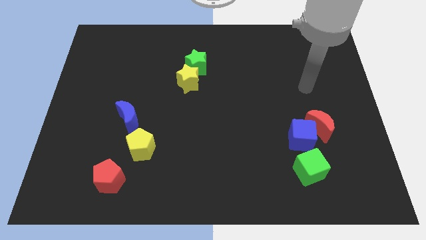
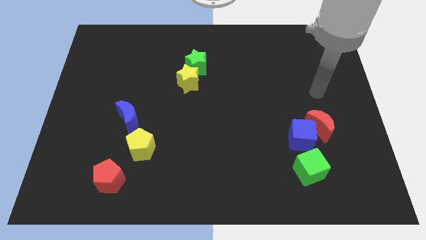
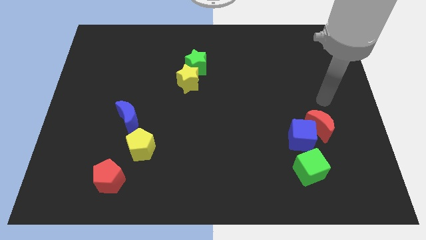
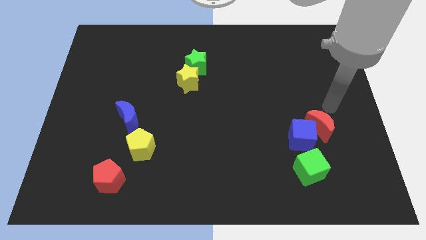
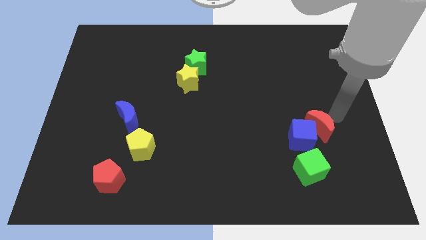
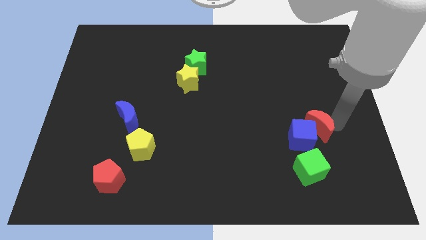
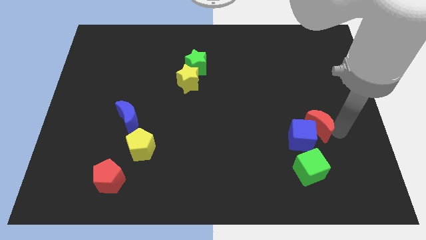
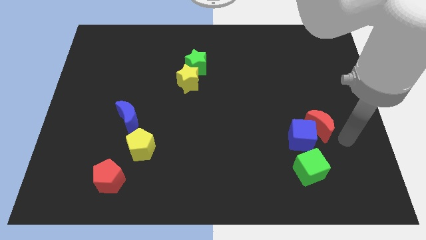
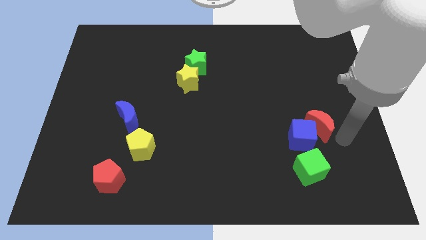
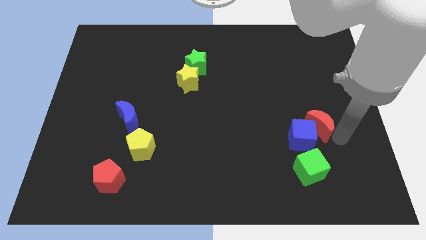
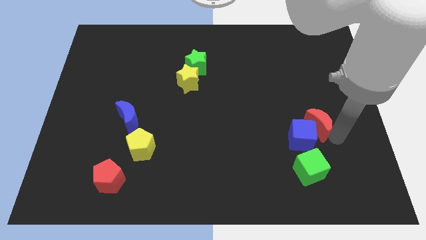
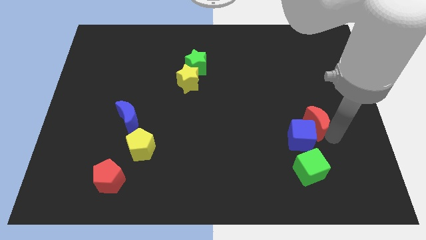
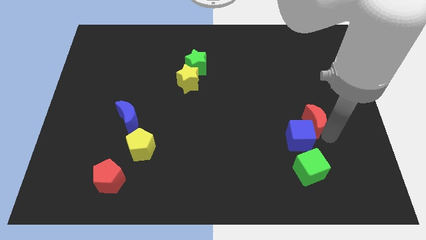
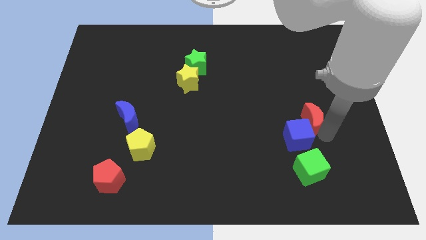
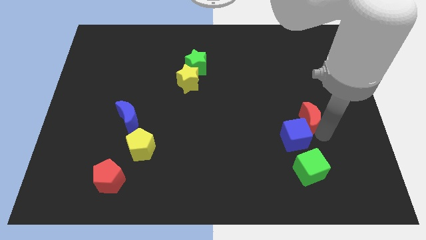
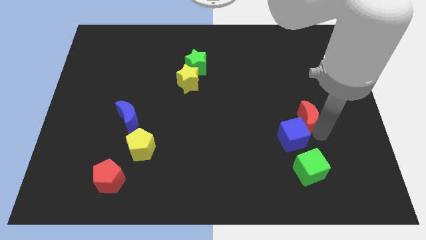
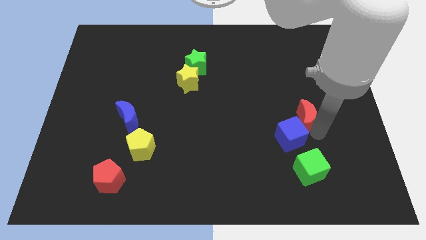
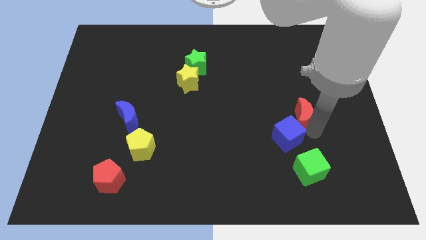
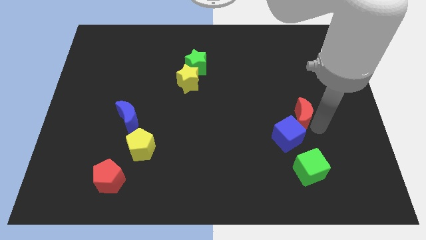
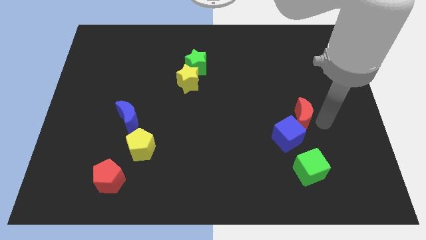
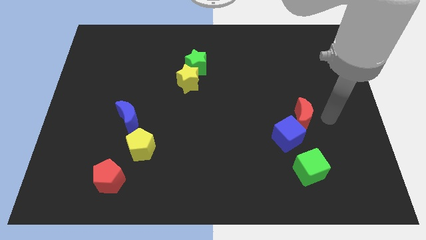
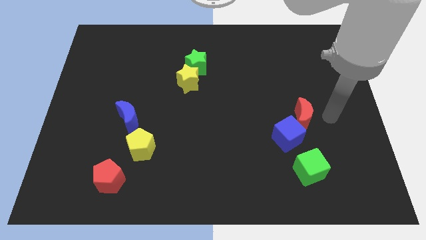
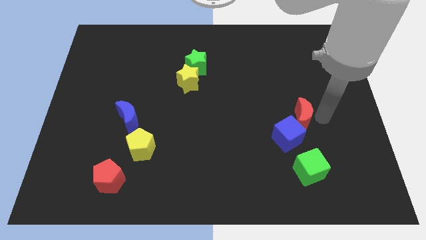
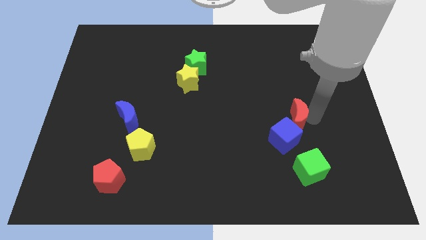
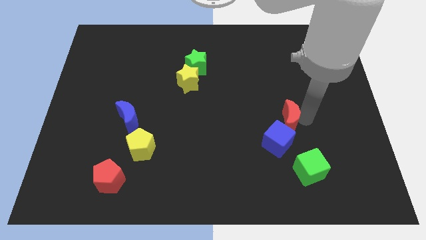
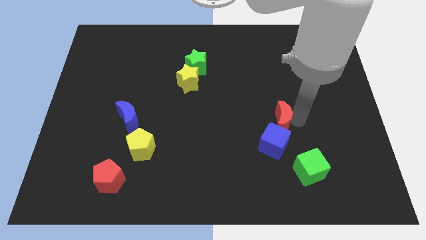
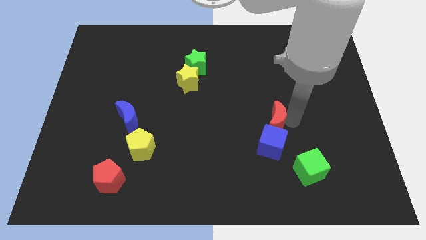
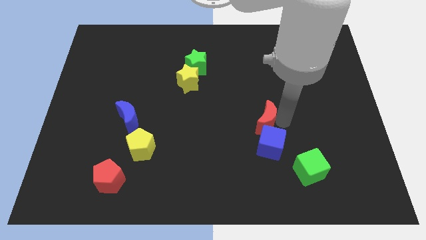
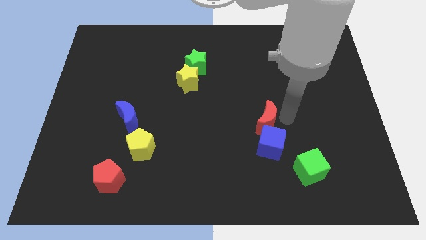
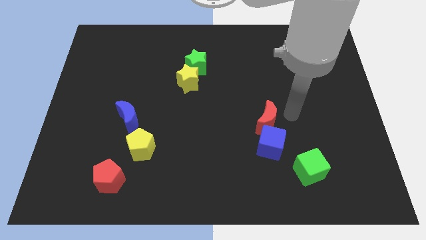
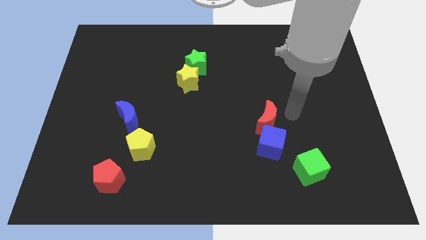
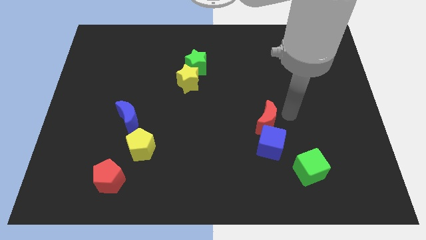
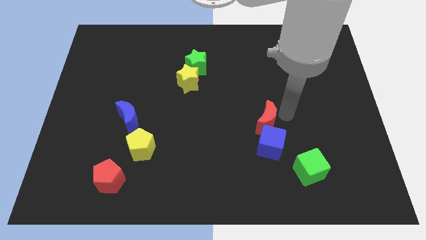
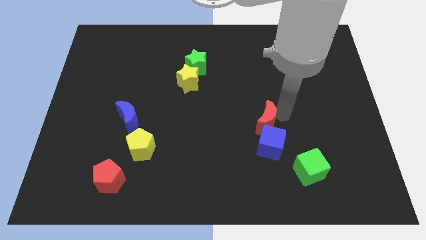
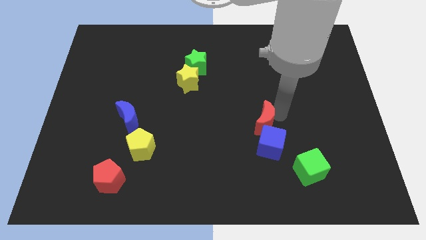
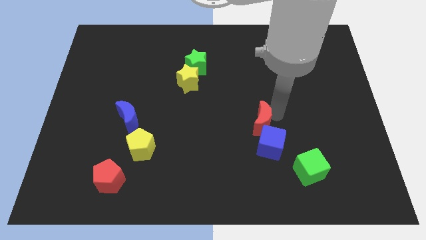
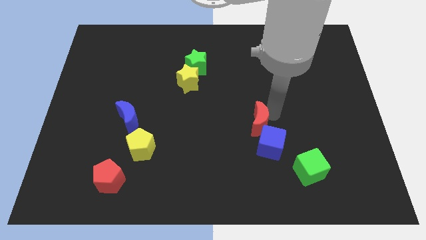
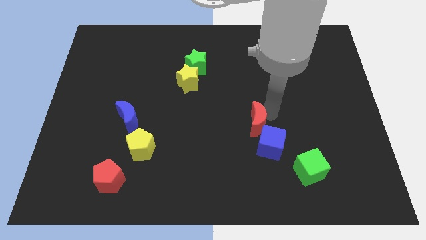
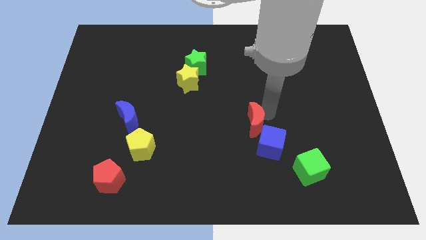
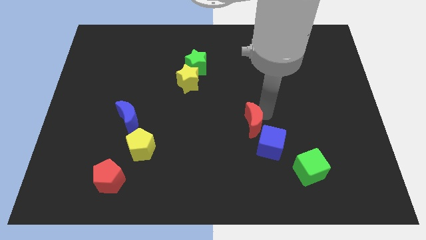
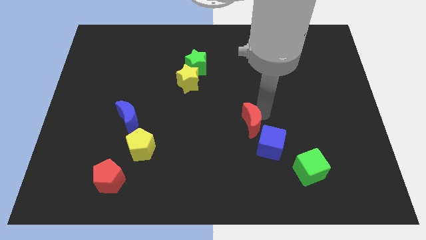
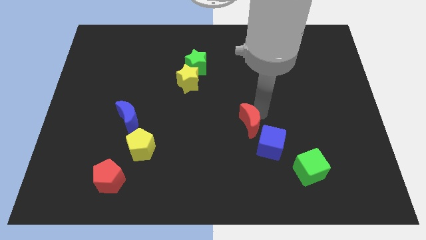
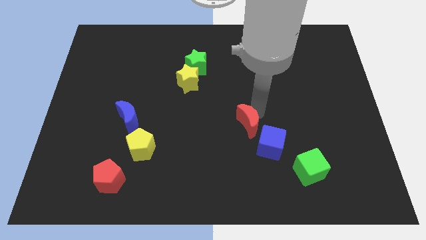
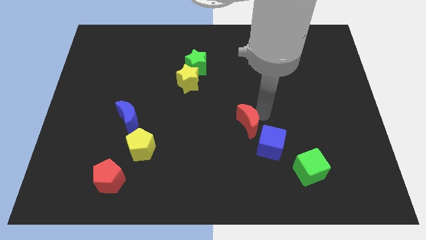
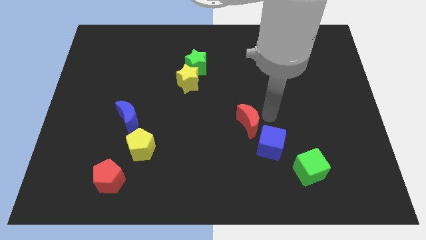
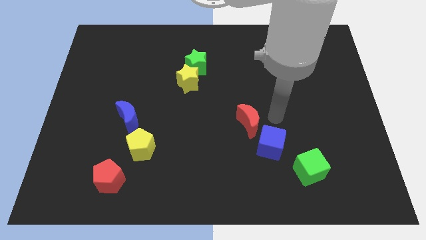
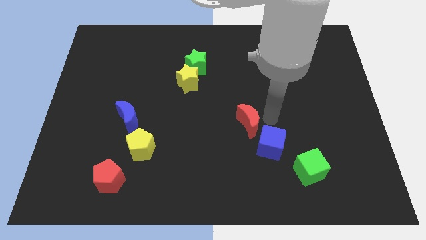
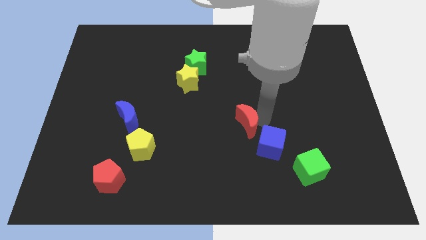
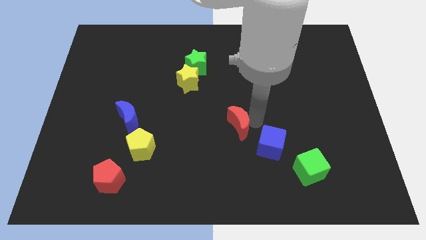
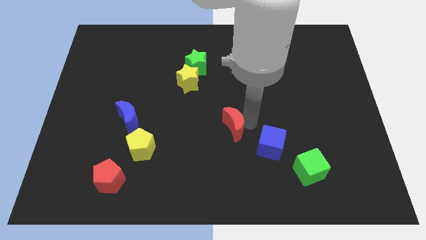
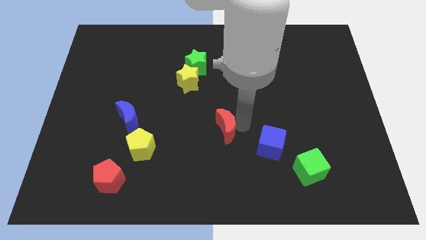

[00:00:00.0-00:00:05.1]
slide the red moon to the left

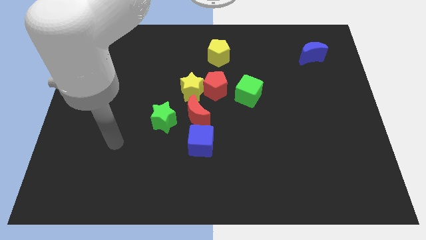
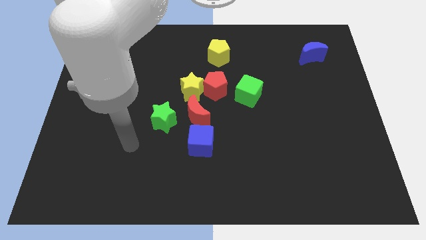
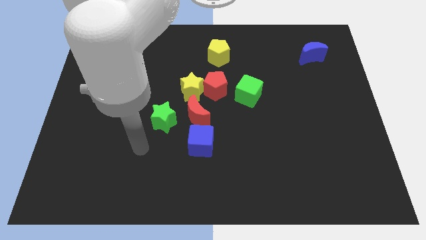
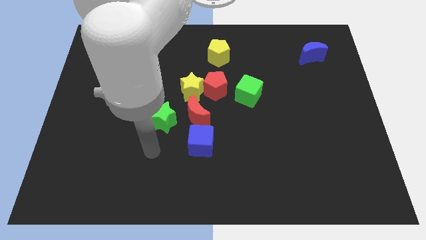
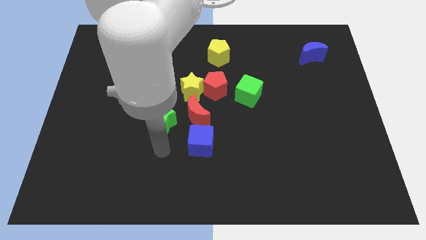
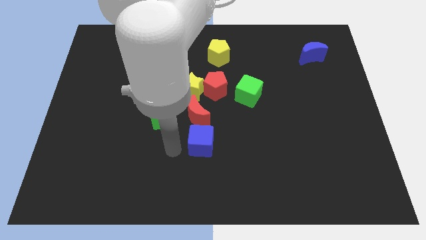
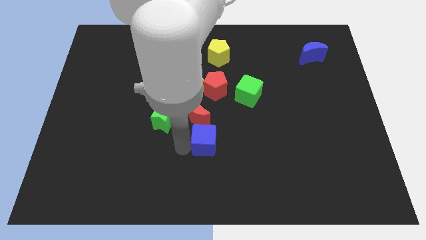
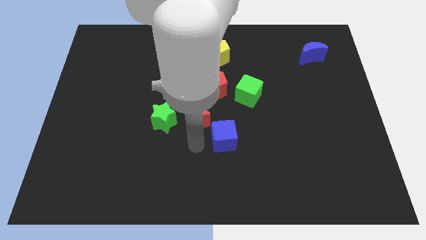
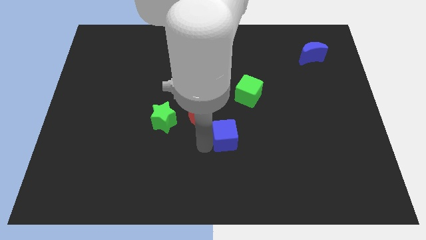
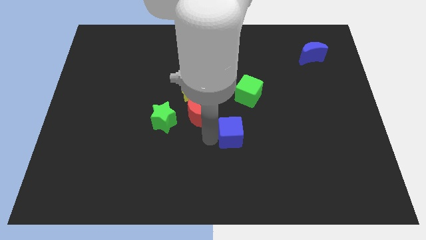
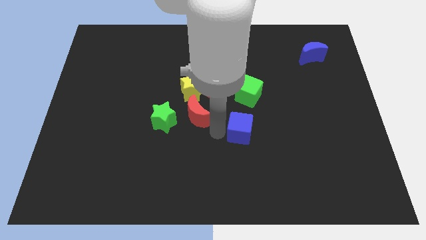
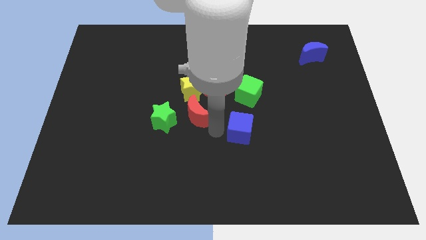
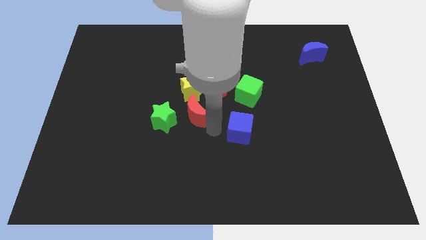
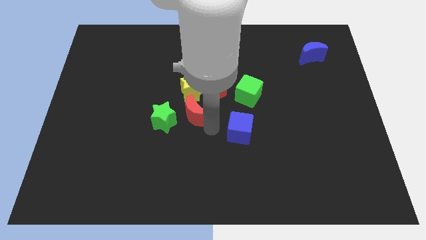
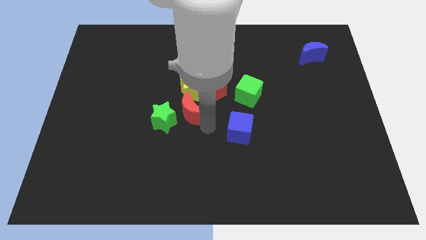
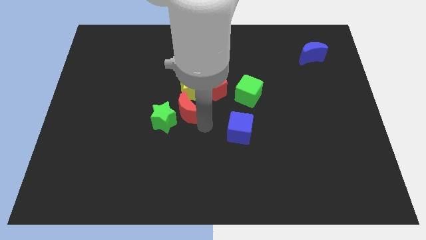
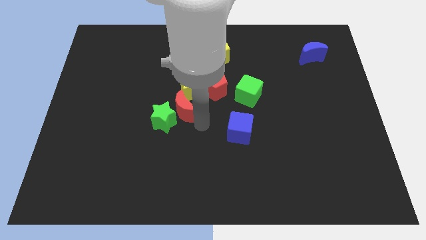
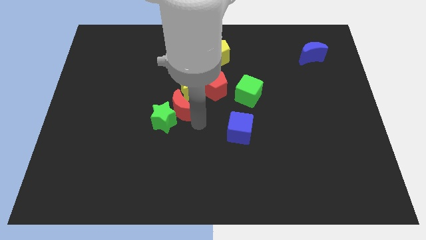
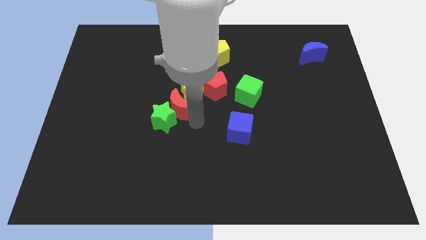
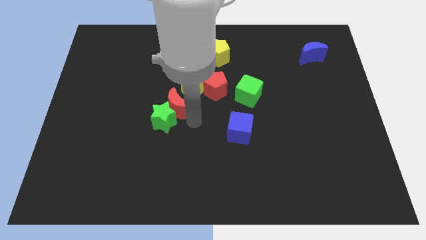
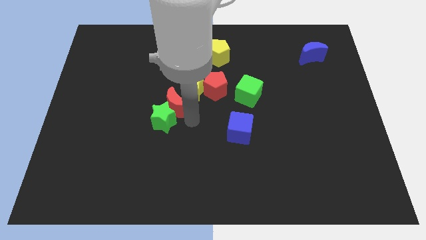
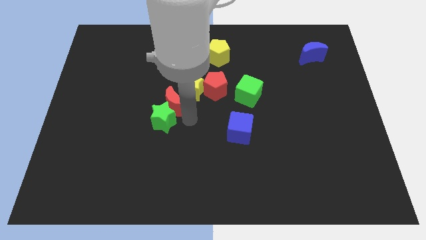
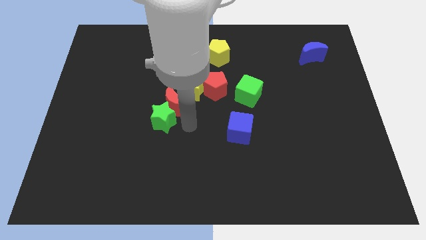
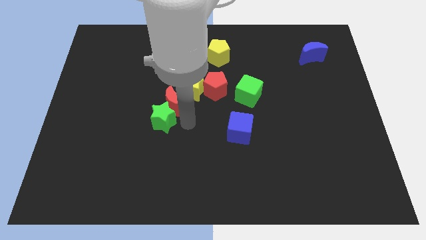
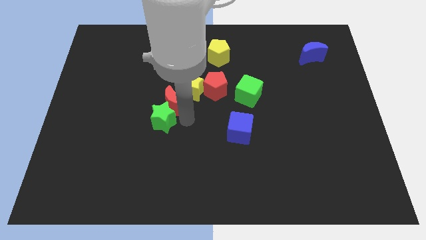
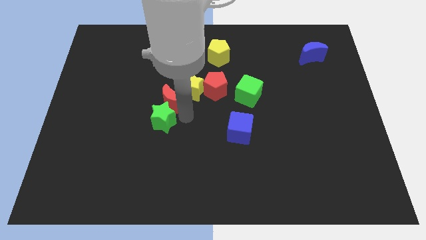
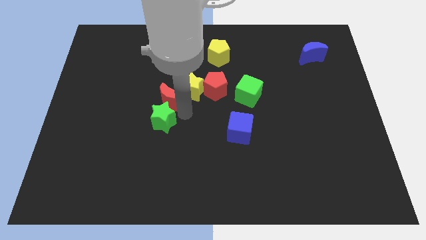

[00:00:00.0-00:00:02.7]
move the red moon a little up and to the left

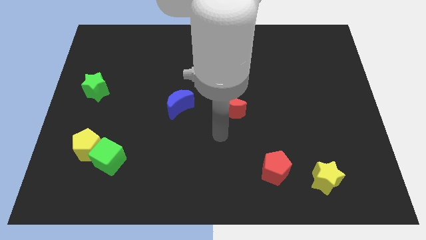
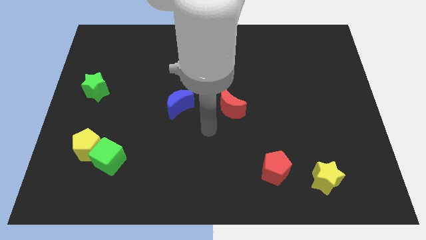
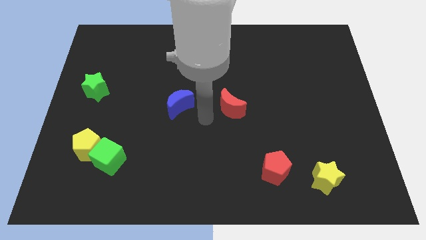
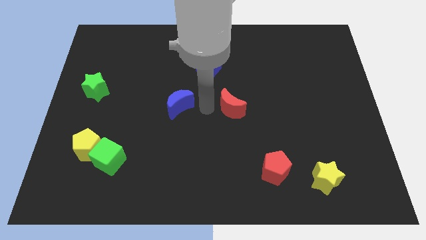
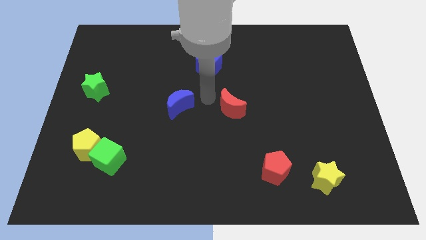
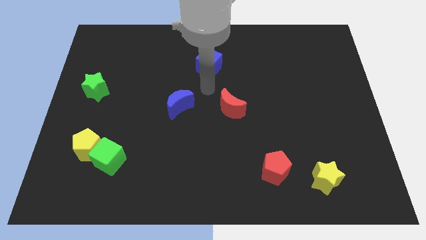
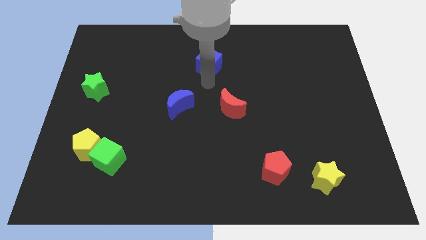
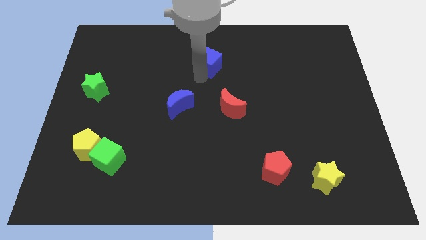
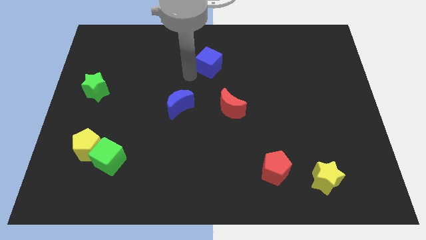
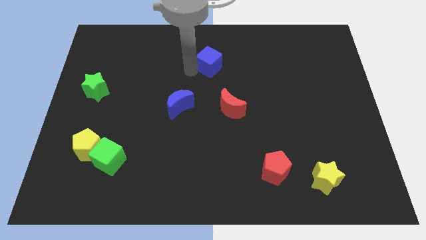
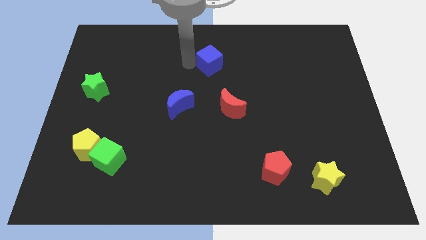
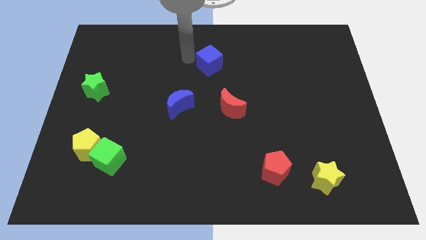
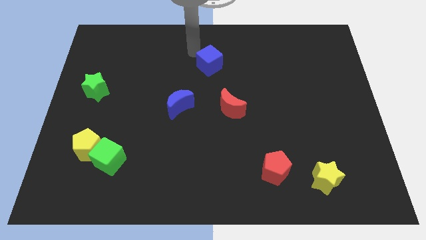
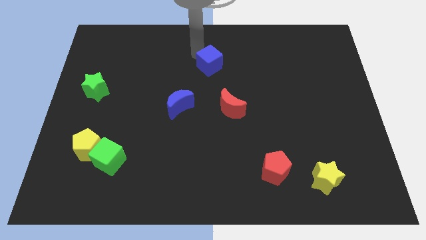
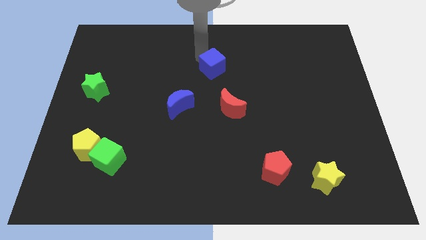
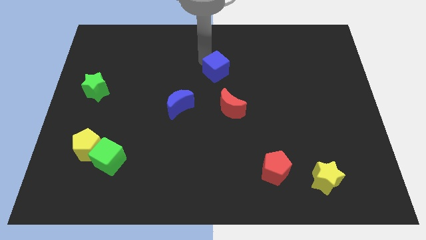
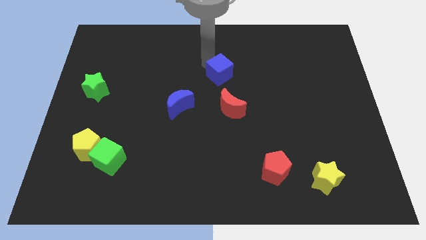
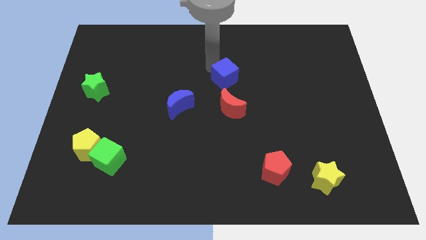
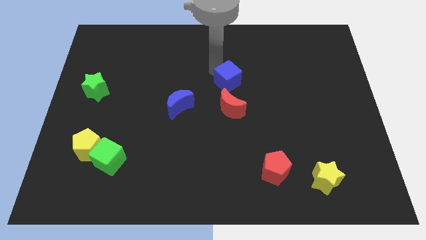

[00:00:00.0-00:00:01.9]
slightly push the blue cube downwards and then to the right
